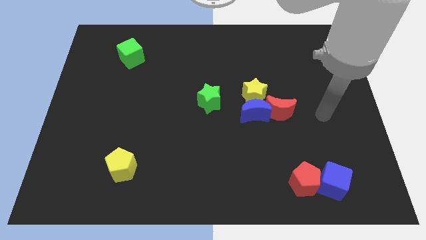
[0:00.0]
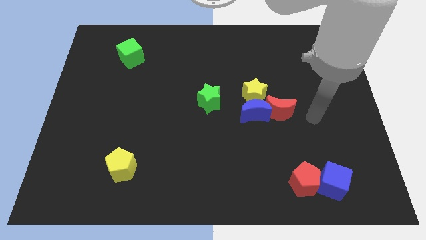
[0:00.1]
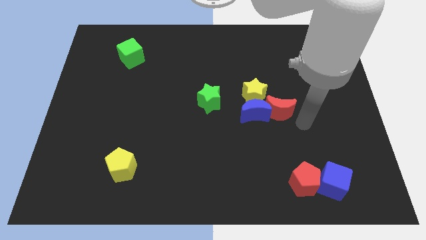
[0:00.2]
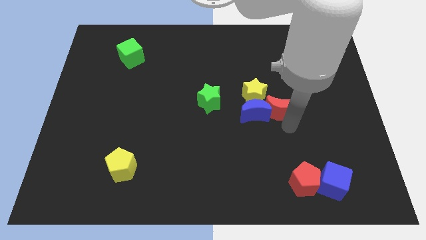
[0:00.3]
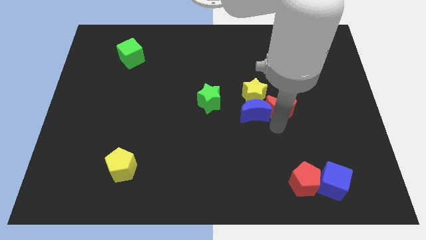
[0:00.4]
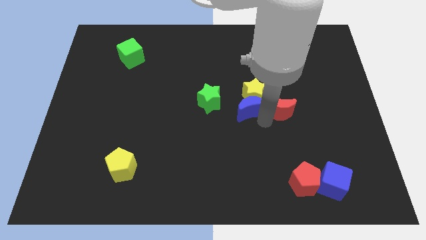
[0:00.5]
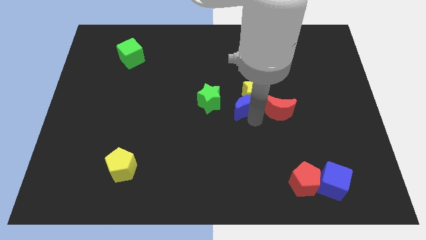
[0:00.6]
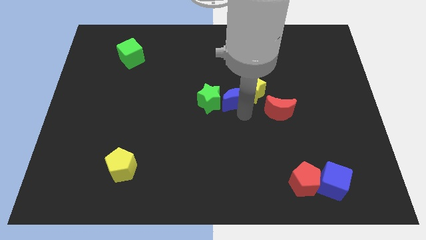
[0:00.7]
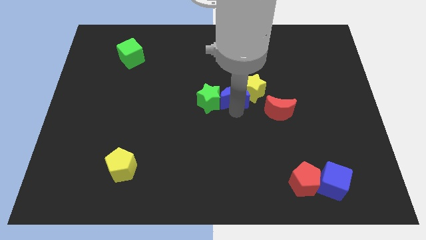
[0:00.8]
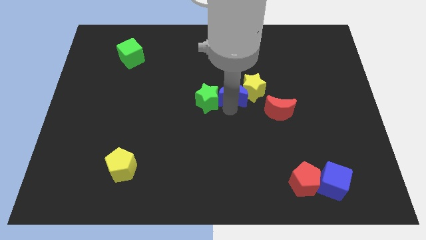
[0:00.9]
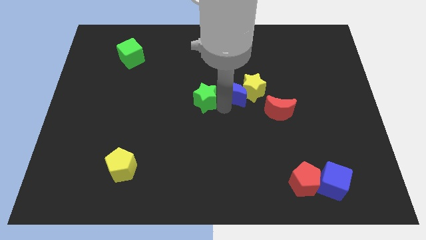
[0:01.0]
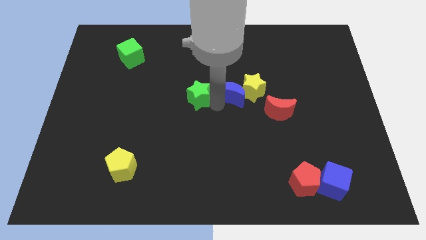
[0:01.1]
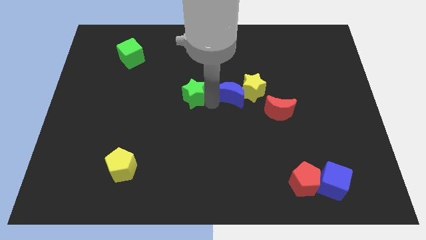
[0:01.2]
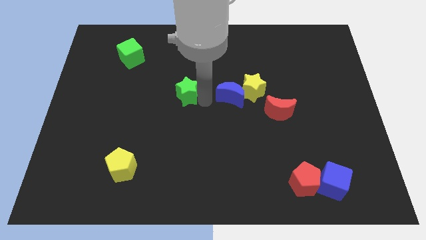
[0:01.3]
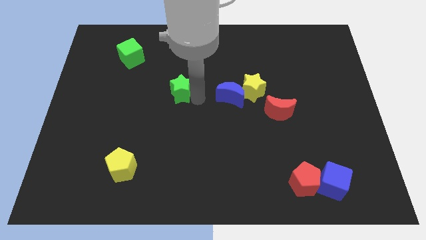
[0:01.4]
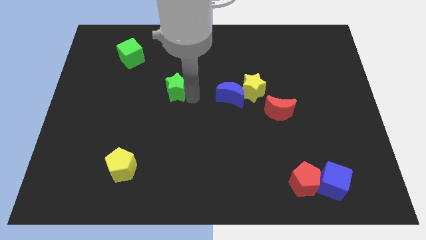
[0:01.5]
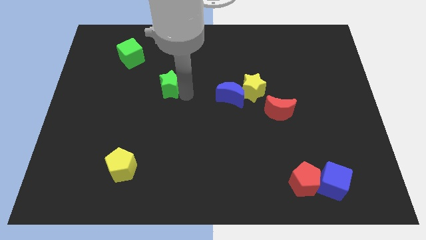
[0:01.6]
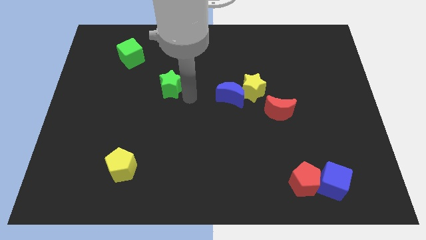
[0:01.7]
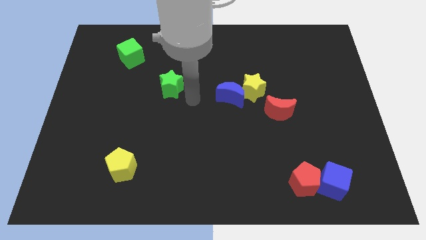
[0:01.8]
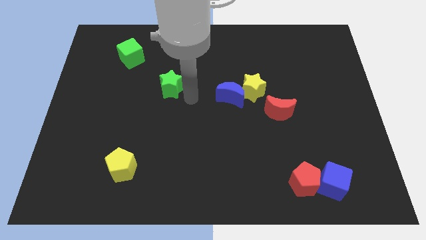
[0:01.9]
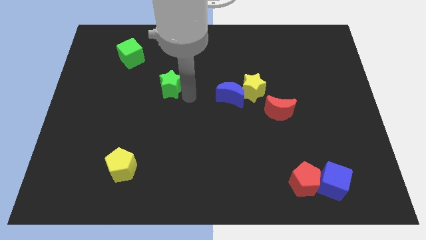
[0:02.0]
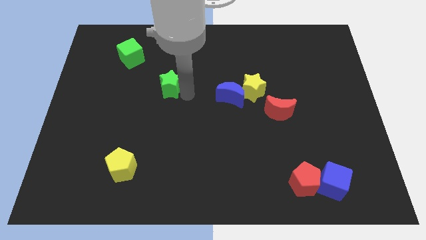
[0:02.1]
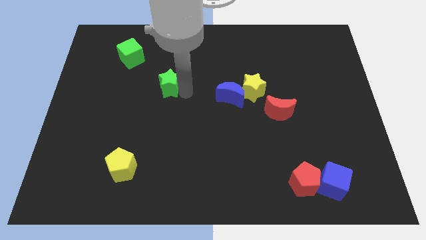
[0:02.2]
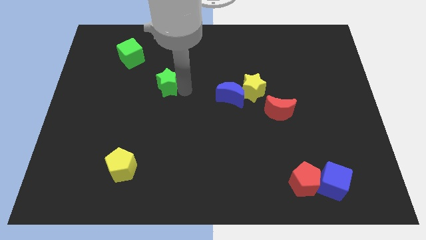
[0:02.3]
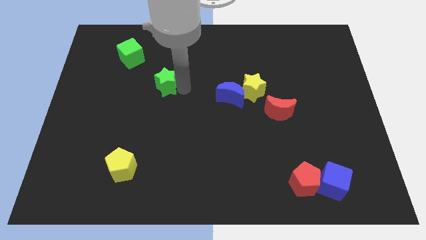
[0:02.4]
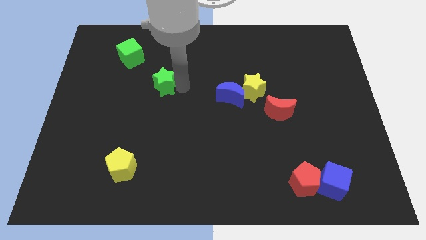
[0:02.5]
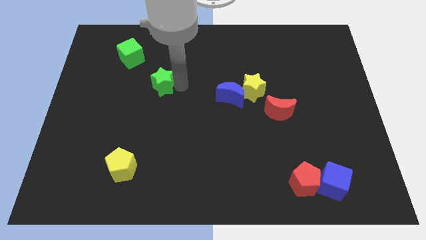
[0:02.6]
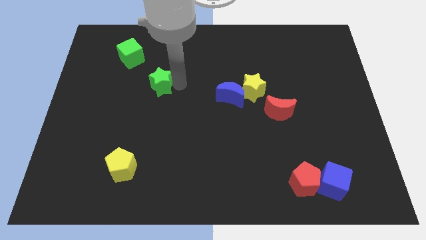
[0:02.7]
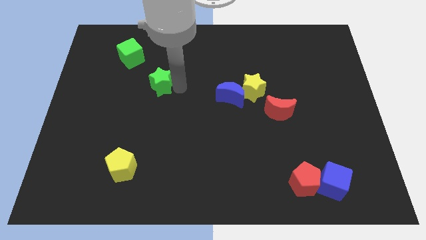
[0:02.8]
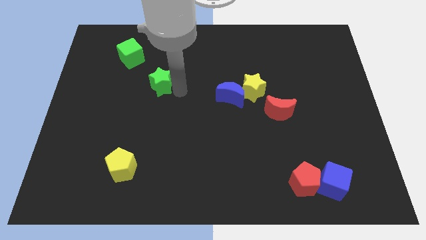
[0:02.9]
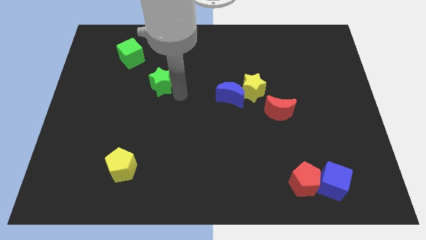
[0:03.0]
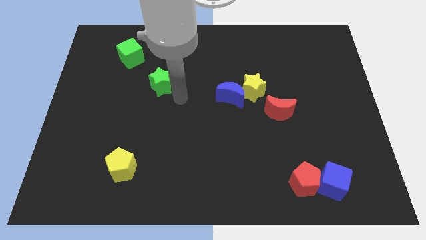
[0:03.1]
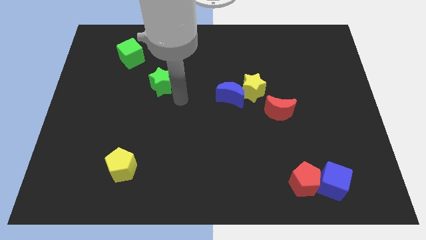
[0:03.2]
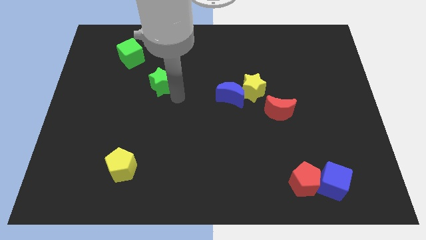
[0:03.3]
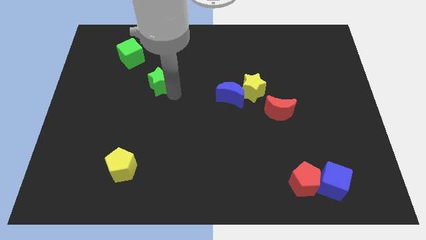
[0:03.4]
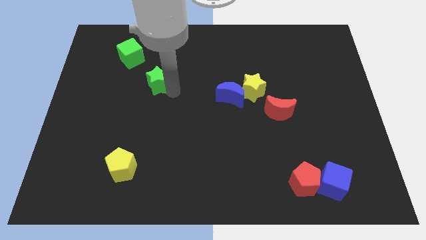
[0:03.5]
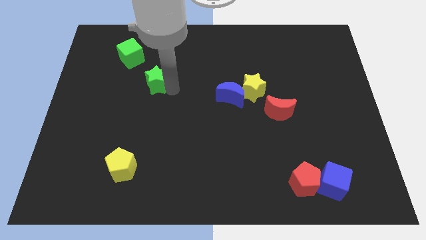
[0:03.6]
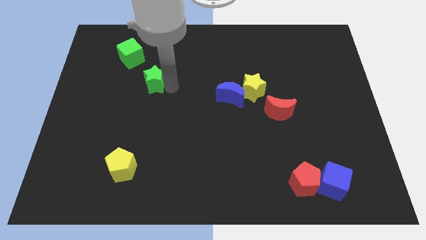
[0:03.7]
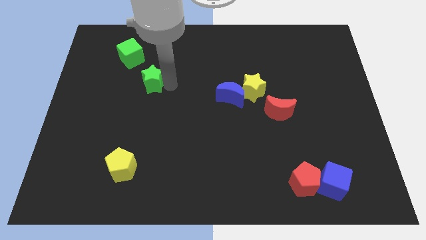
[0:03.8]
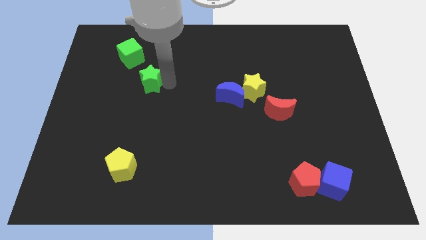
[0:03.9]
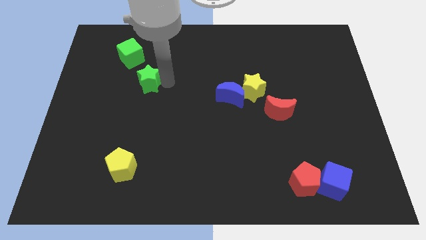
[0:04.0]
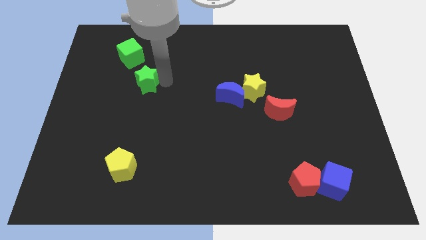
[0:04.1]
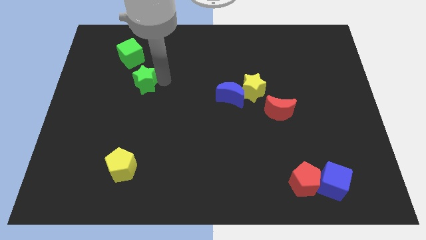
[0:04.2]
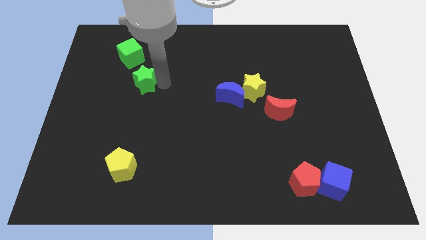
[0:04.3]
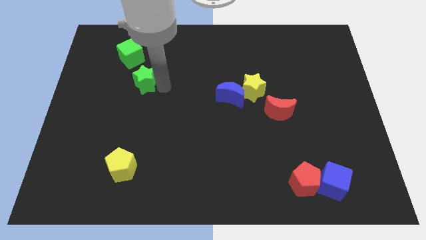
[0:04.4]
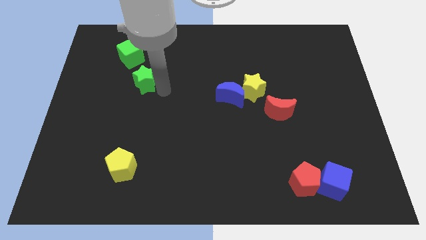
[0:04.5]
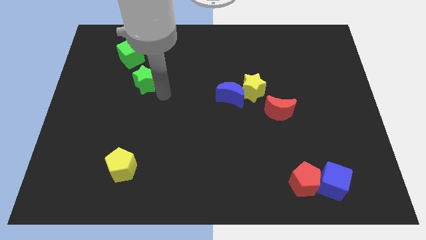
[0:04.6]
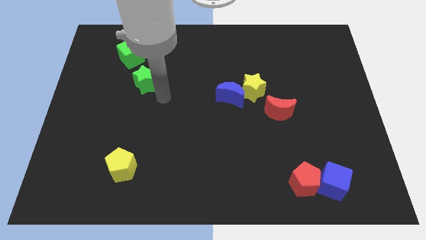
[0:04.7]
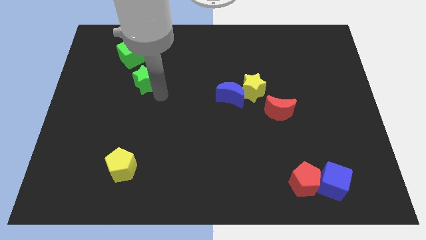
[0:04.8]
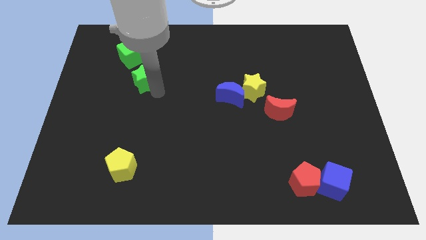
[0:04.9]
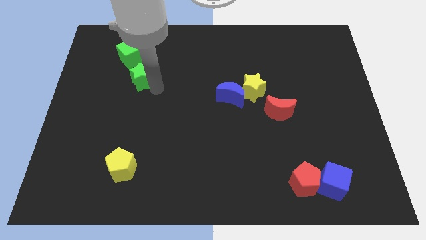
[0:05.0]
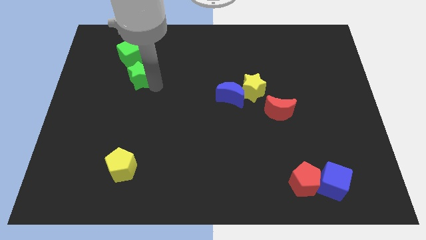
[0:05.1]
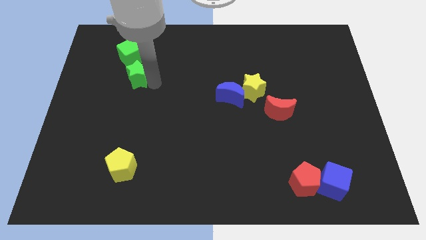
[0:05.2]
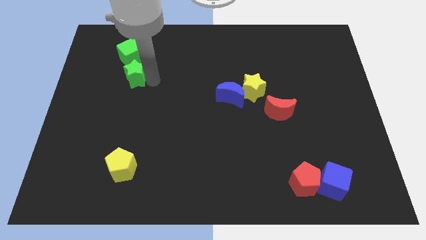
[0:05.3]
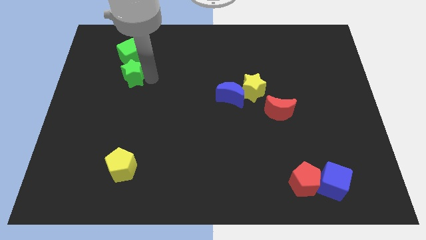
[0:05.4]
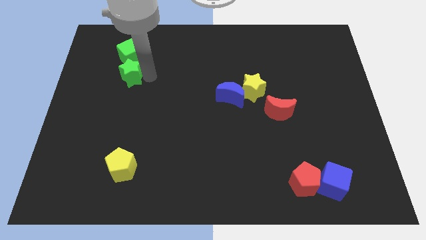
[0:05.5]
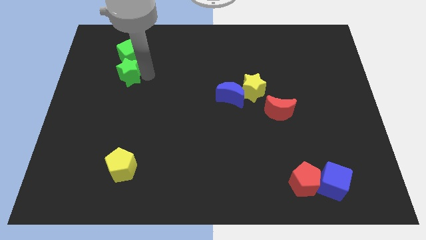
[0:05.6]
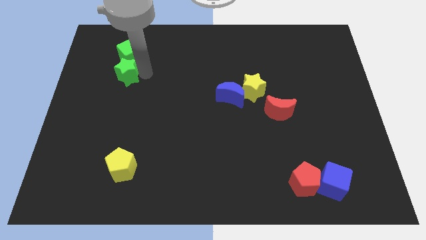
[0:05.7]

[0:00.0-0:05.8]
move the green star diagonally down and to the left of the green cube

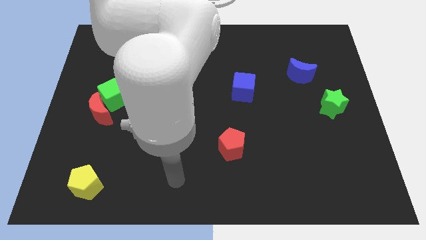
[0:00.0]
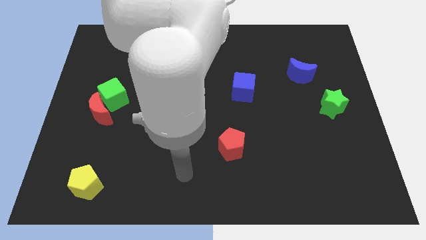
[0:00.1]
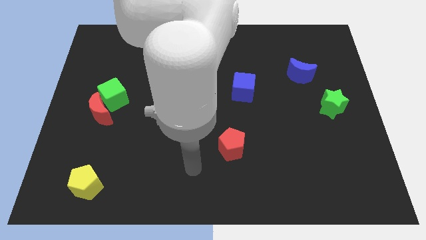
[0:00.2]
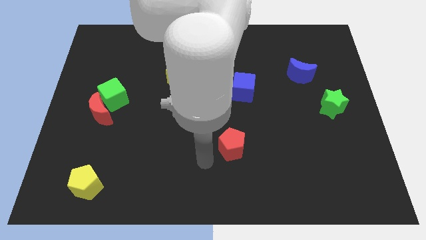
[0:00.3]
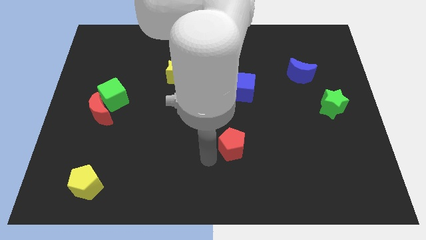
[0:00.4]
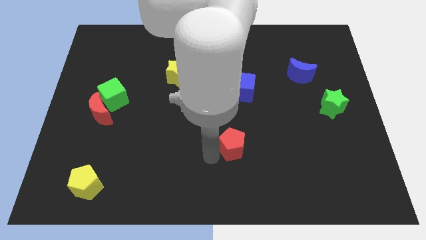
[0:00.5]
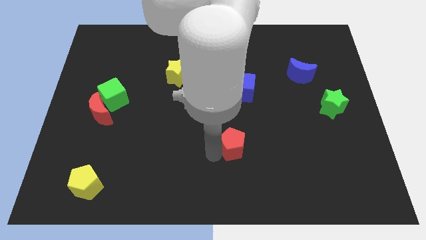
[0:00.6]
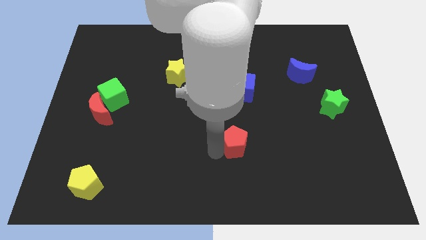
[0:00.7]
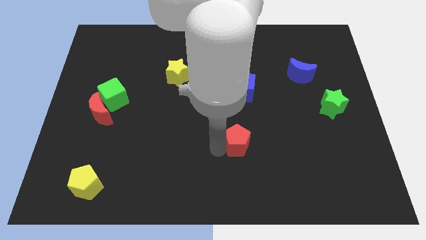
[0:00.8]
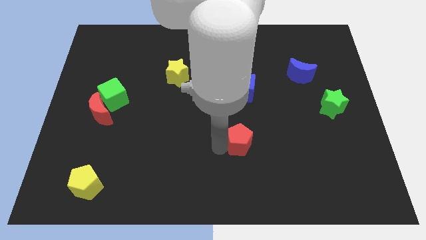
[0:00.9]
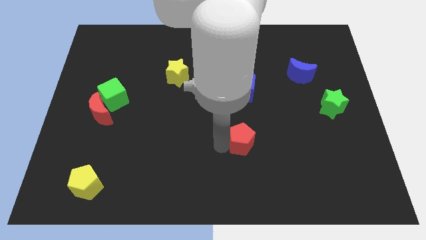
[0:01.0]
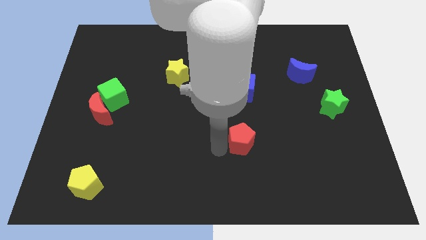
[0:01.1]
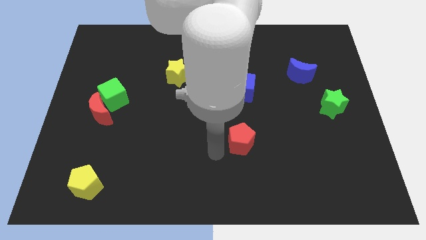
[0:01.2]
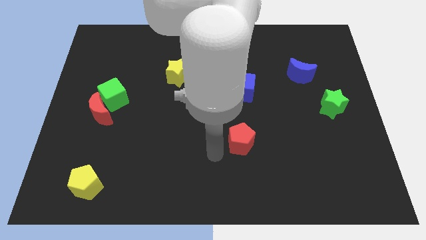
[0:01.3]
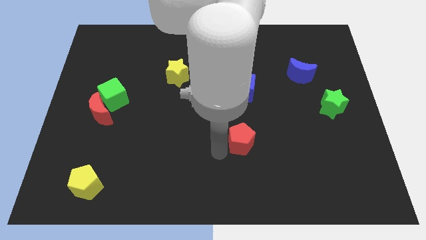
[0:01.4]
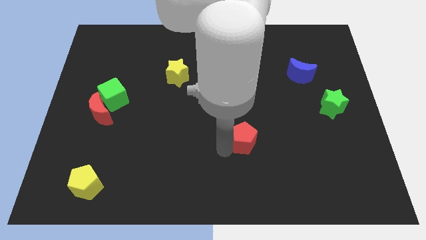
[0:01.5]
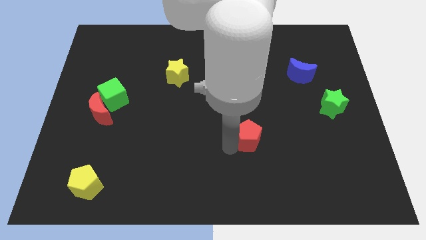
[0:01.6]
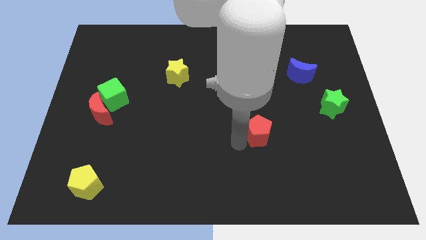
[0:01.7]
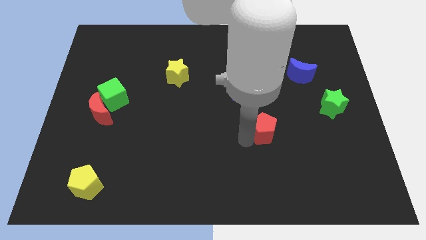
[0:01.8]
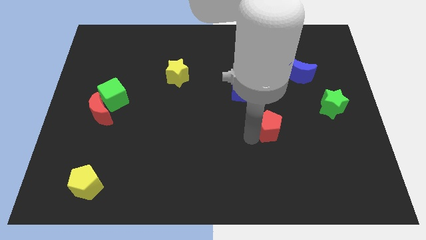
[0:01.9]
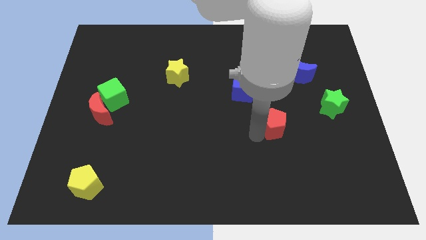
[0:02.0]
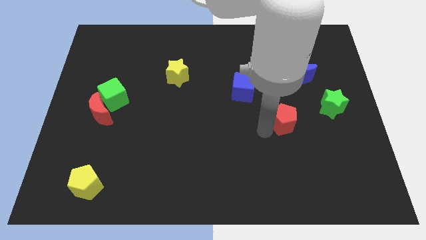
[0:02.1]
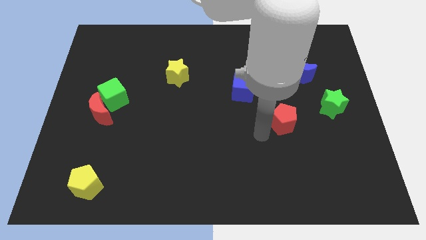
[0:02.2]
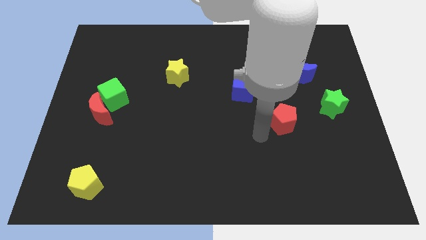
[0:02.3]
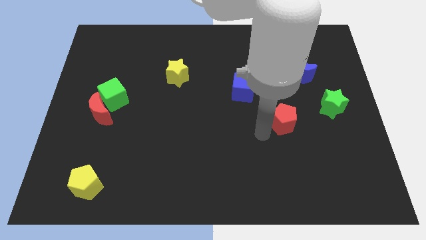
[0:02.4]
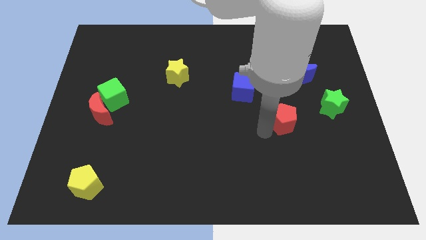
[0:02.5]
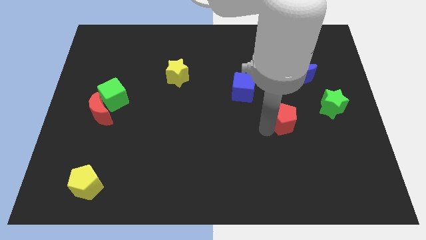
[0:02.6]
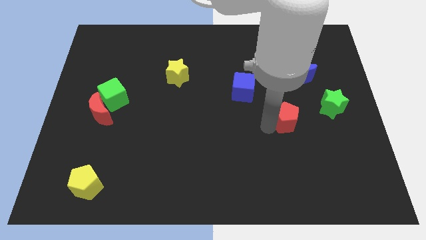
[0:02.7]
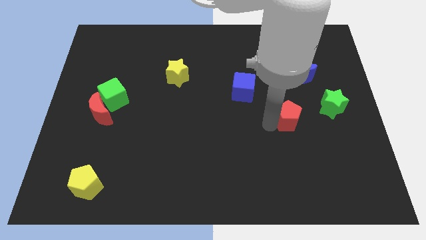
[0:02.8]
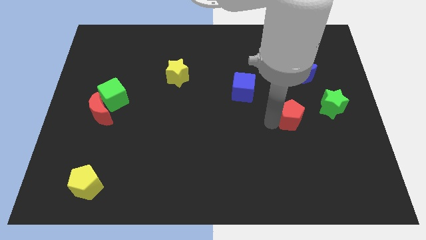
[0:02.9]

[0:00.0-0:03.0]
put the red pentagon below the blue moon
